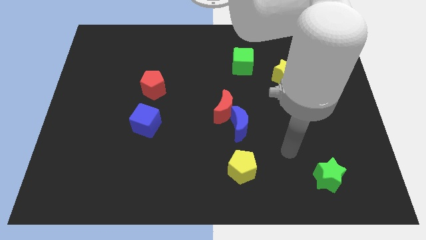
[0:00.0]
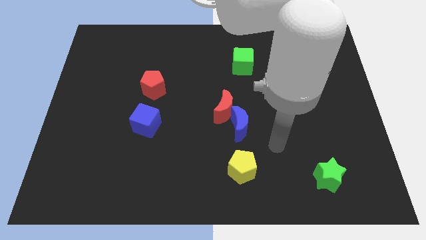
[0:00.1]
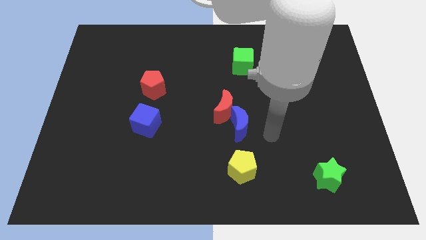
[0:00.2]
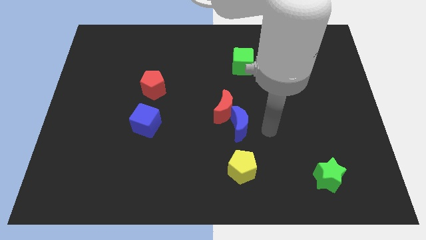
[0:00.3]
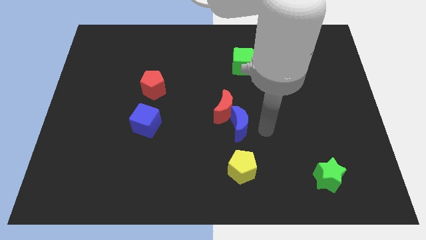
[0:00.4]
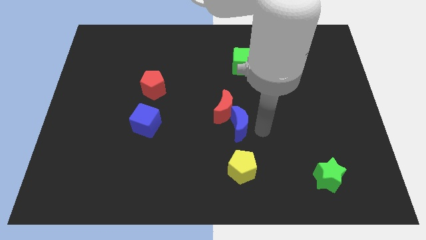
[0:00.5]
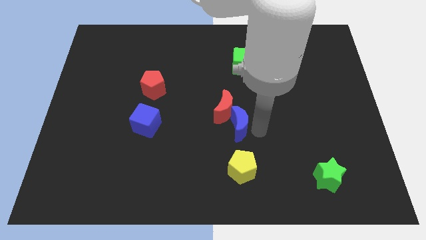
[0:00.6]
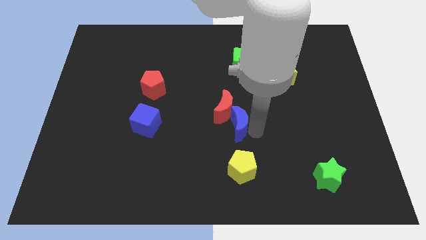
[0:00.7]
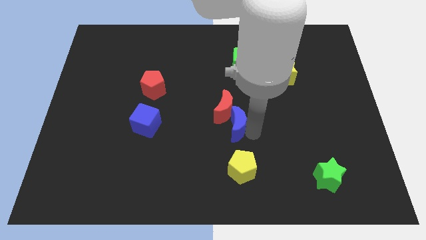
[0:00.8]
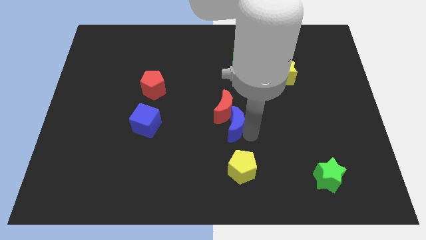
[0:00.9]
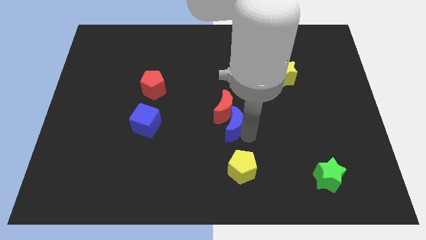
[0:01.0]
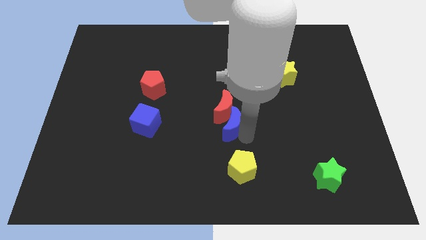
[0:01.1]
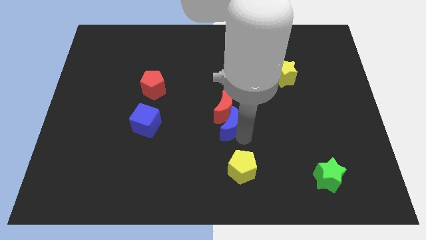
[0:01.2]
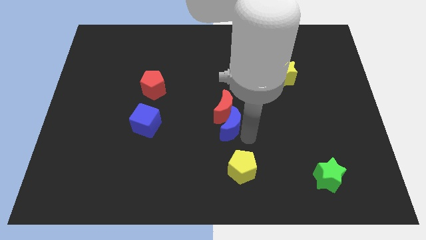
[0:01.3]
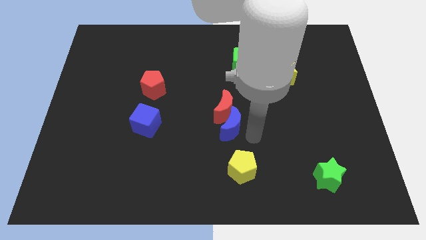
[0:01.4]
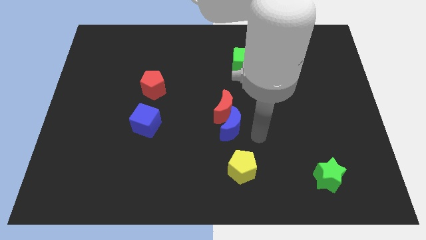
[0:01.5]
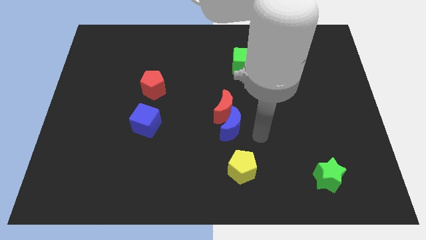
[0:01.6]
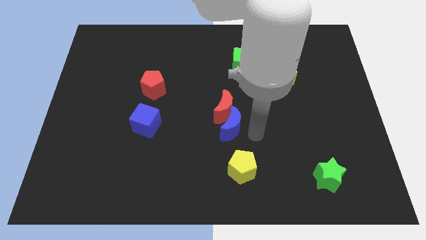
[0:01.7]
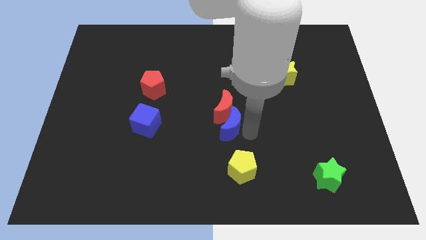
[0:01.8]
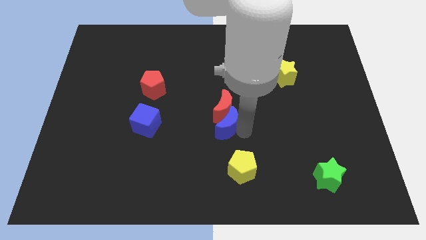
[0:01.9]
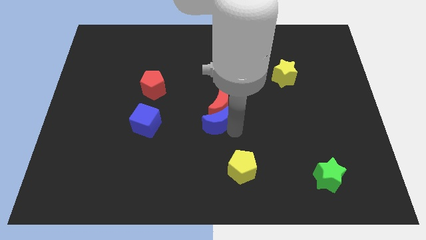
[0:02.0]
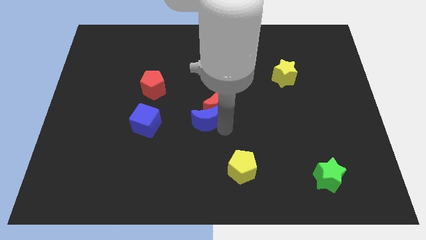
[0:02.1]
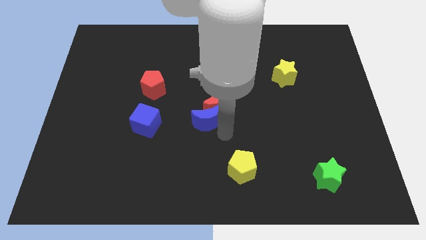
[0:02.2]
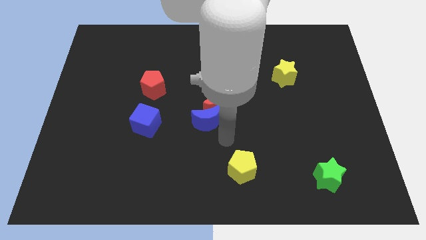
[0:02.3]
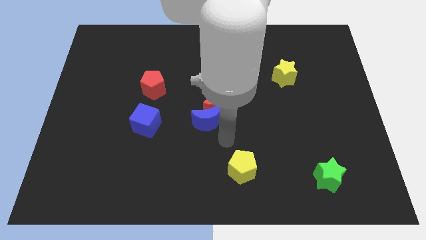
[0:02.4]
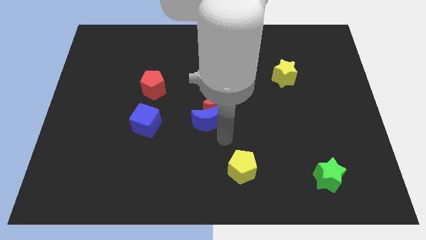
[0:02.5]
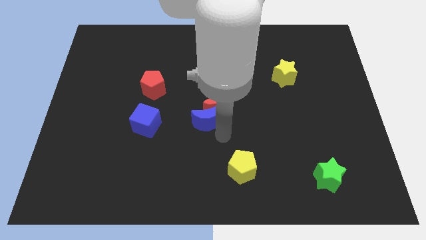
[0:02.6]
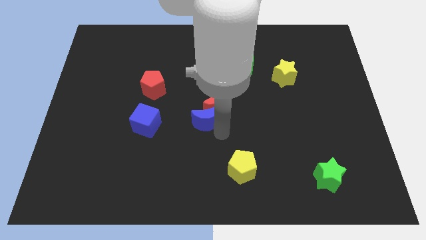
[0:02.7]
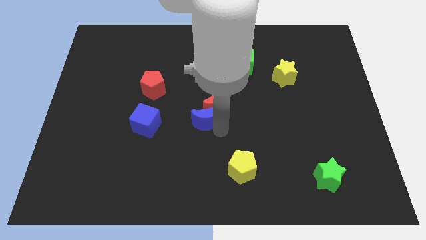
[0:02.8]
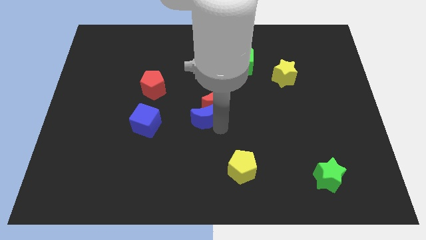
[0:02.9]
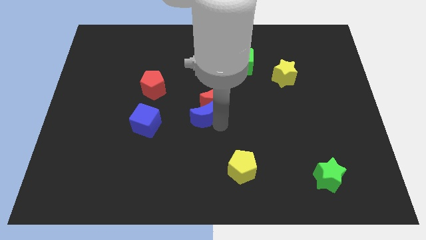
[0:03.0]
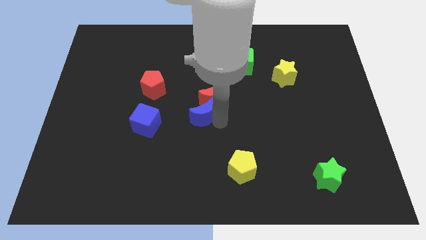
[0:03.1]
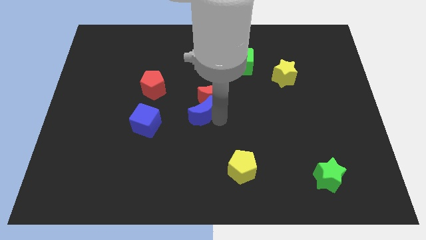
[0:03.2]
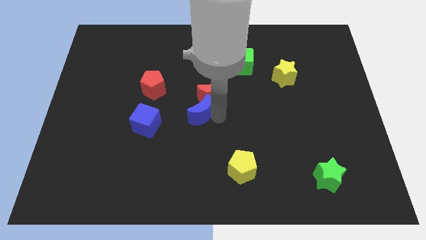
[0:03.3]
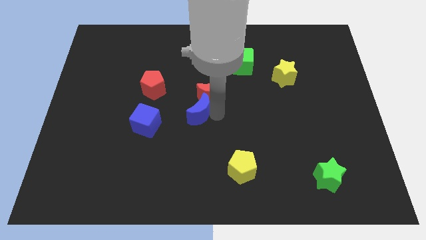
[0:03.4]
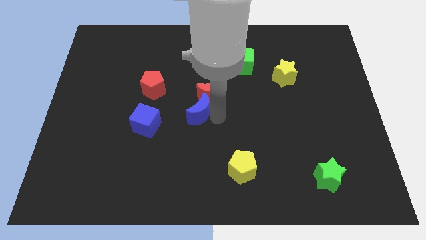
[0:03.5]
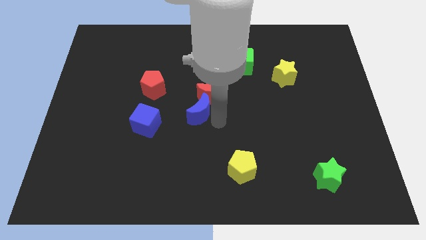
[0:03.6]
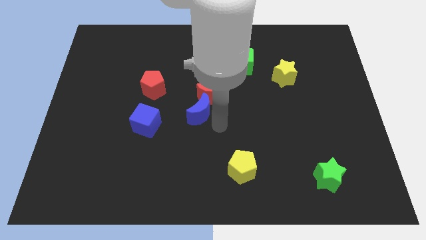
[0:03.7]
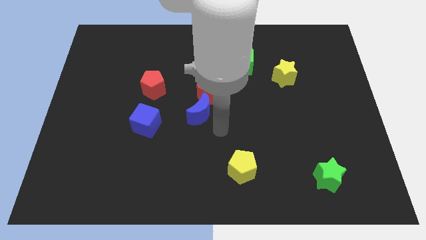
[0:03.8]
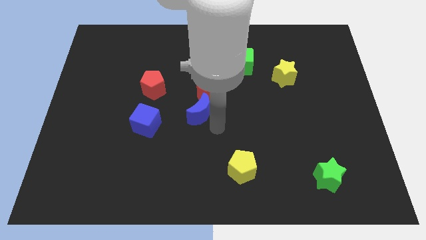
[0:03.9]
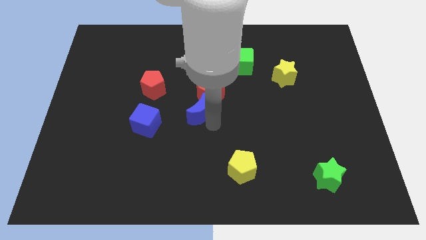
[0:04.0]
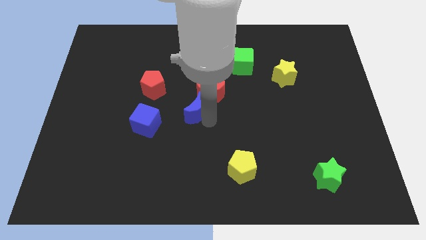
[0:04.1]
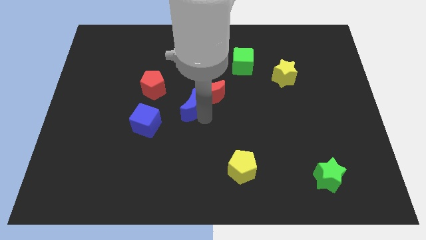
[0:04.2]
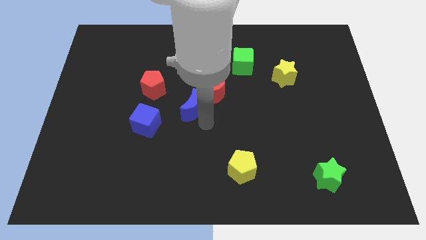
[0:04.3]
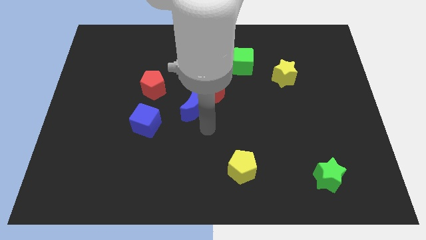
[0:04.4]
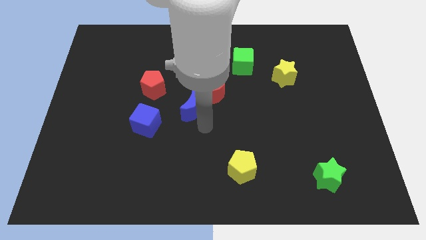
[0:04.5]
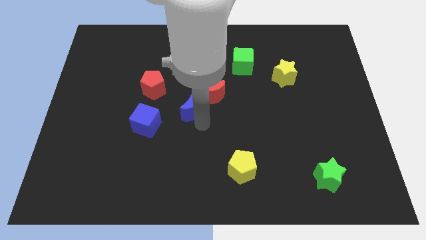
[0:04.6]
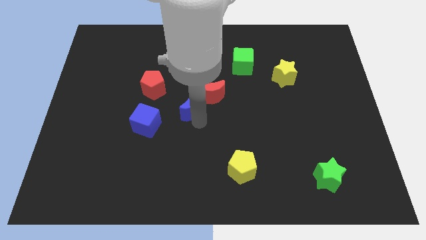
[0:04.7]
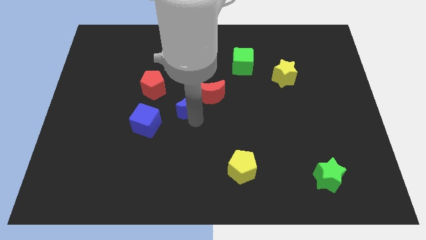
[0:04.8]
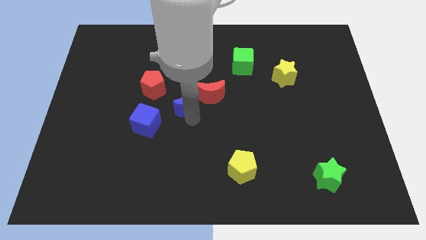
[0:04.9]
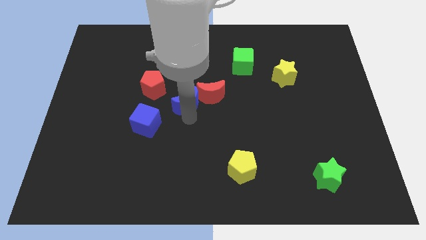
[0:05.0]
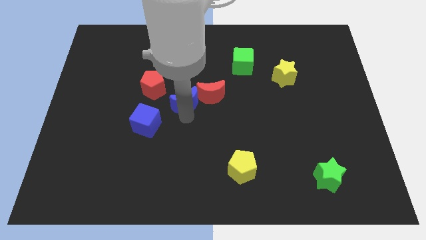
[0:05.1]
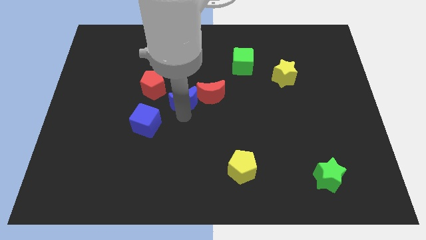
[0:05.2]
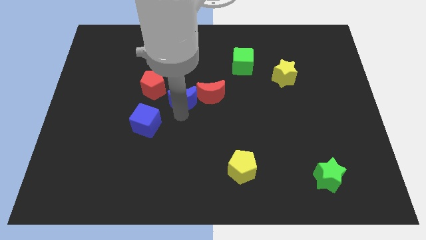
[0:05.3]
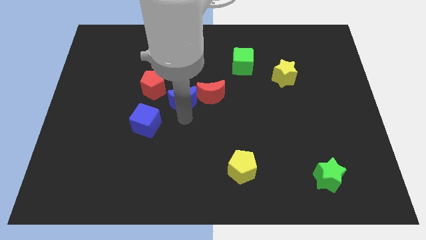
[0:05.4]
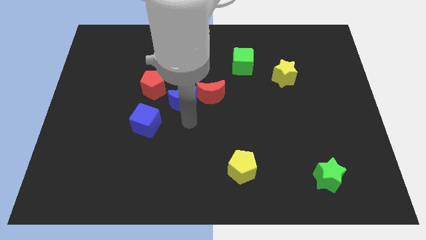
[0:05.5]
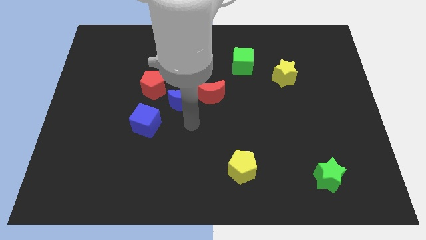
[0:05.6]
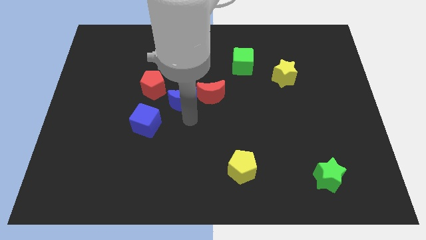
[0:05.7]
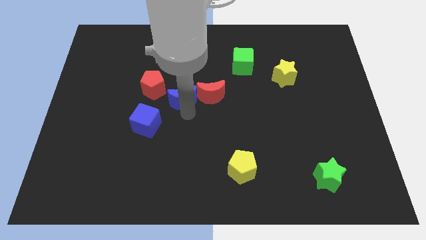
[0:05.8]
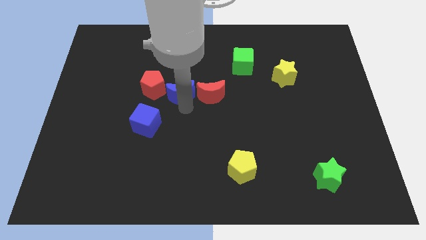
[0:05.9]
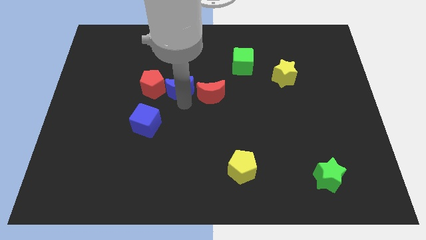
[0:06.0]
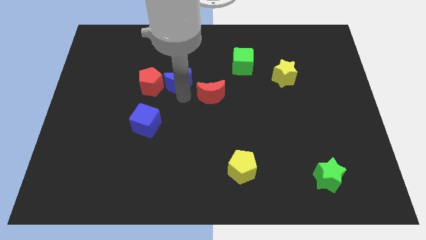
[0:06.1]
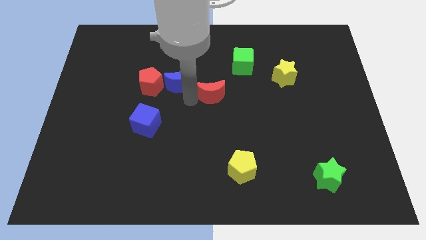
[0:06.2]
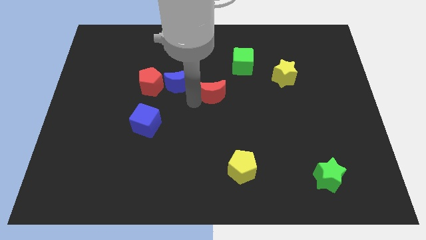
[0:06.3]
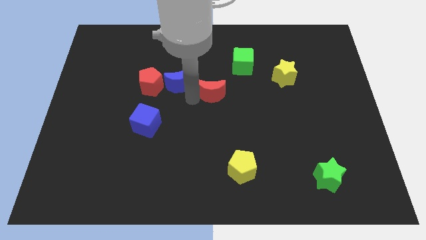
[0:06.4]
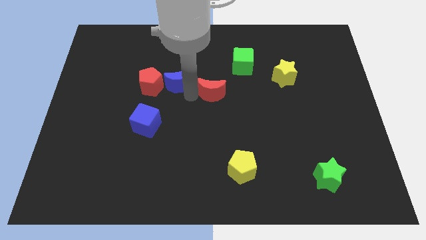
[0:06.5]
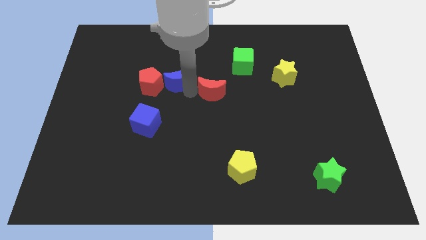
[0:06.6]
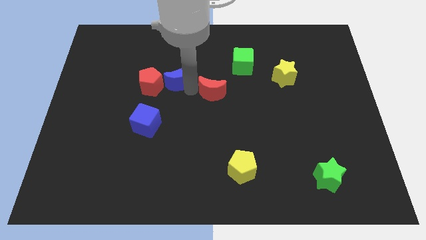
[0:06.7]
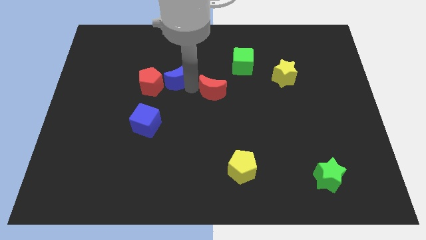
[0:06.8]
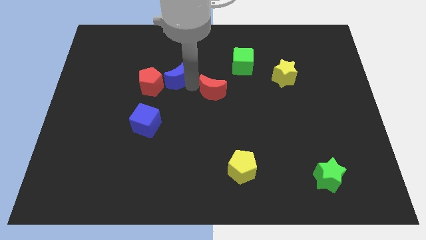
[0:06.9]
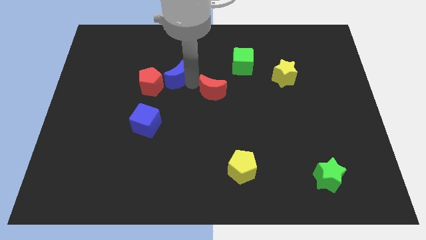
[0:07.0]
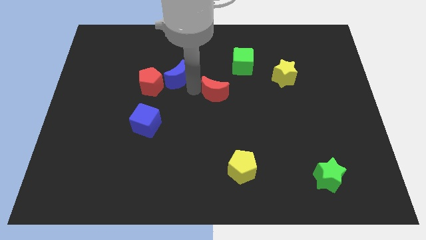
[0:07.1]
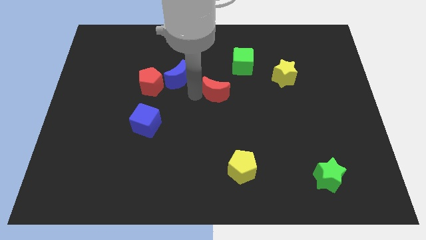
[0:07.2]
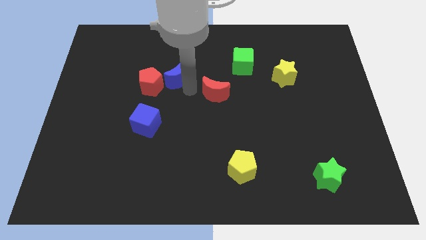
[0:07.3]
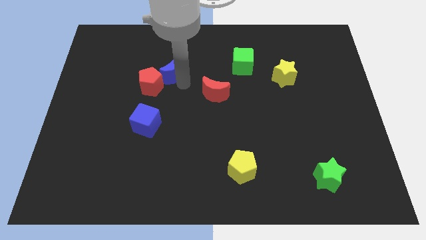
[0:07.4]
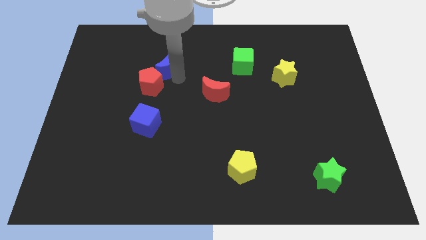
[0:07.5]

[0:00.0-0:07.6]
put the blue moon to the top side of the red pentagon
